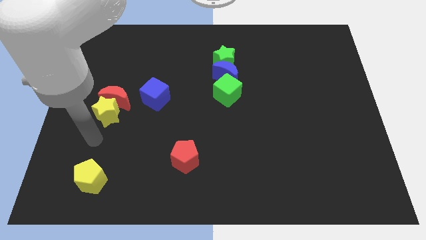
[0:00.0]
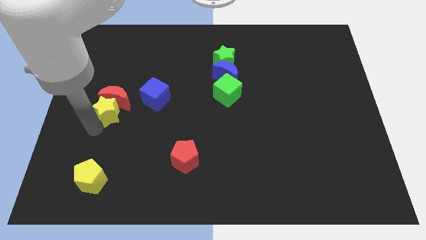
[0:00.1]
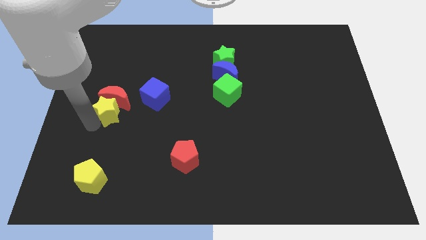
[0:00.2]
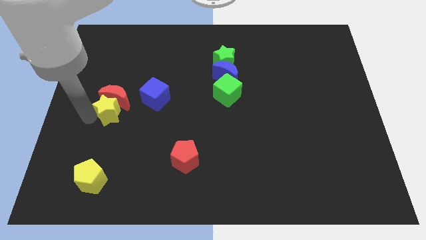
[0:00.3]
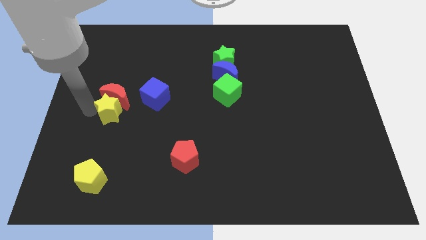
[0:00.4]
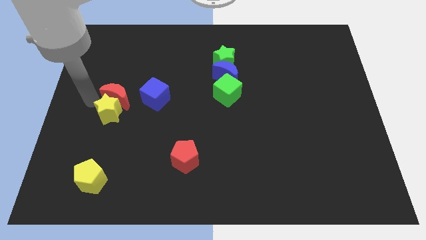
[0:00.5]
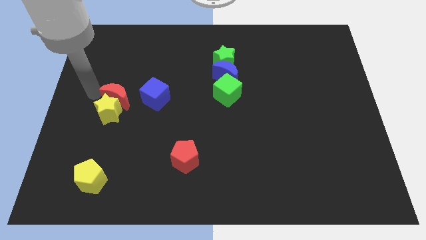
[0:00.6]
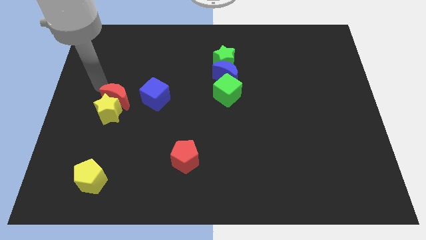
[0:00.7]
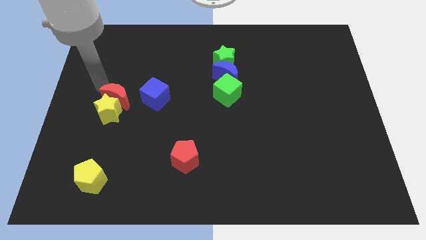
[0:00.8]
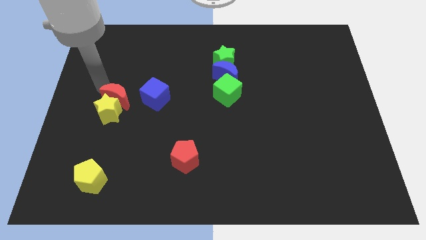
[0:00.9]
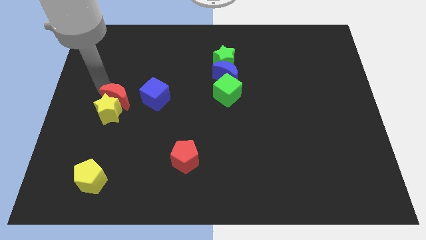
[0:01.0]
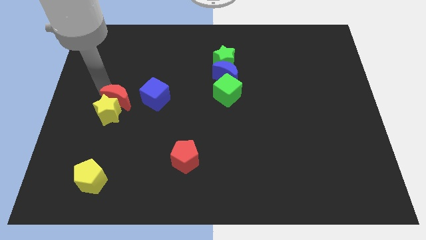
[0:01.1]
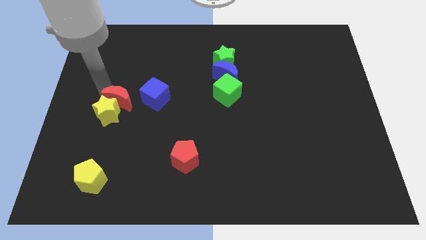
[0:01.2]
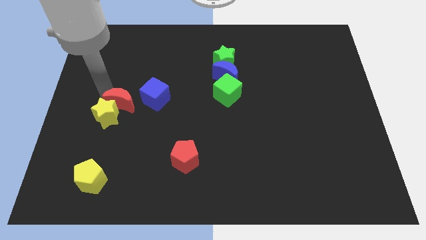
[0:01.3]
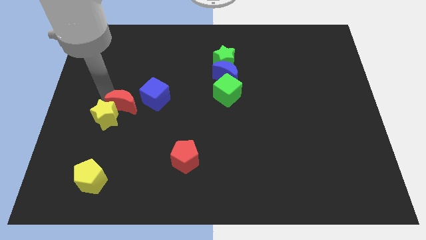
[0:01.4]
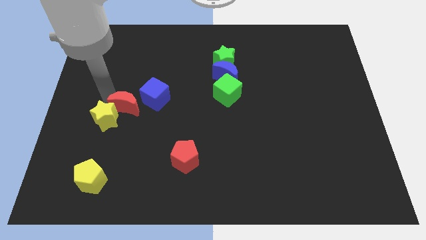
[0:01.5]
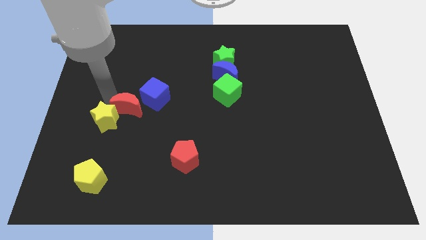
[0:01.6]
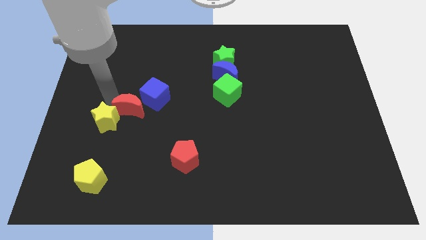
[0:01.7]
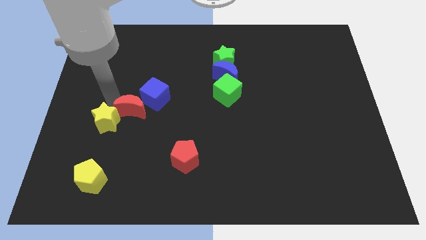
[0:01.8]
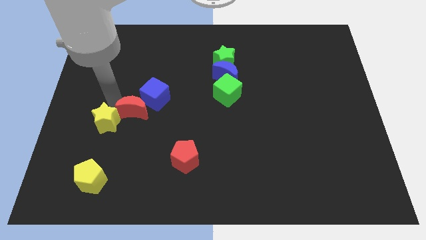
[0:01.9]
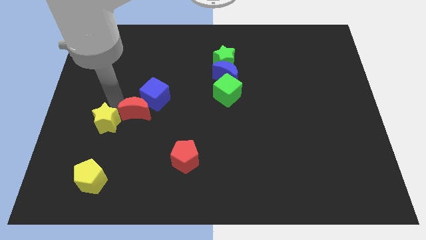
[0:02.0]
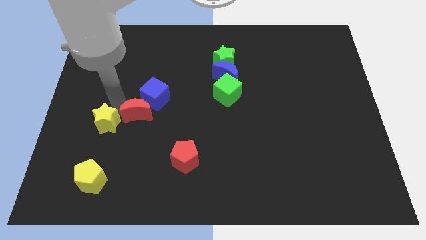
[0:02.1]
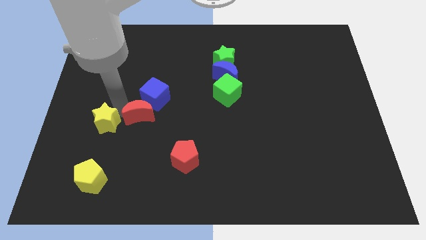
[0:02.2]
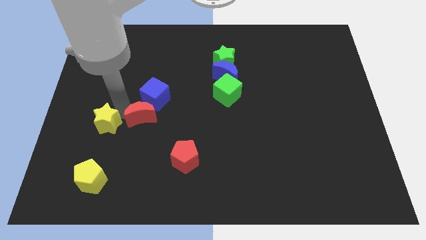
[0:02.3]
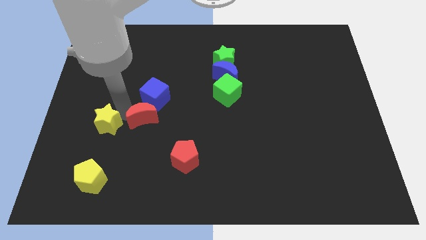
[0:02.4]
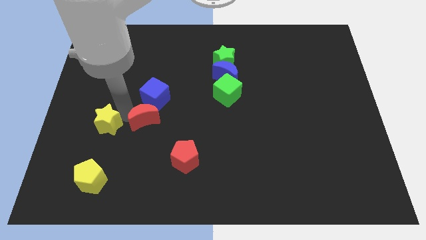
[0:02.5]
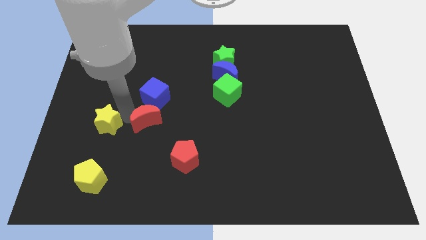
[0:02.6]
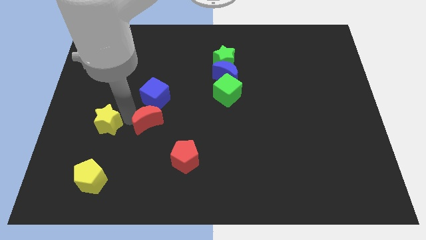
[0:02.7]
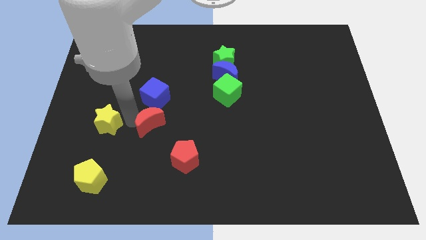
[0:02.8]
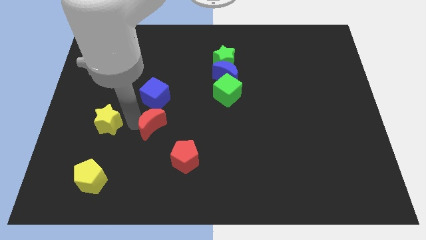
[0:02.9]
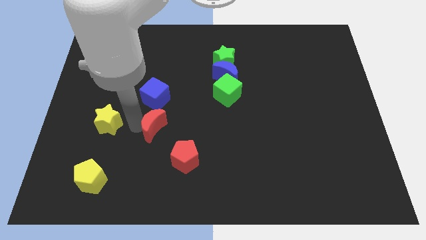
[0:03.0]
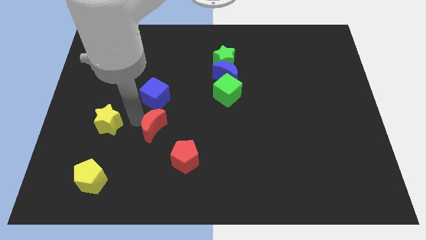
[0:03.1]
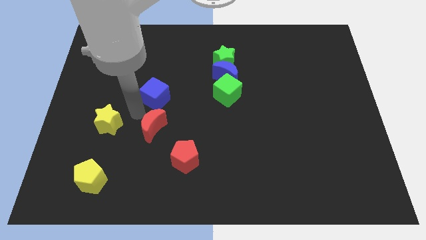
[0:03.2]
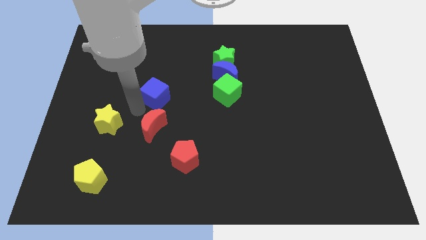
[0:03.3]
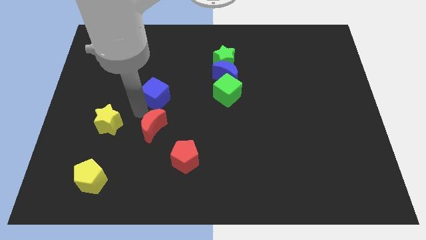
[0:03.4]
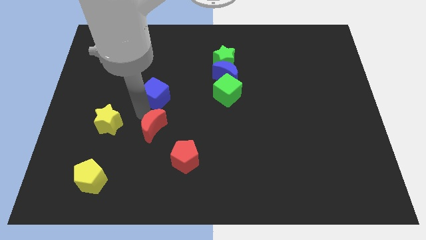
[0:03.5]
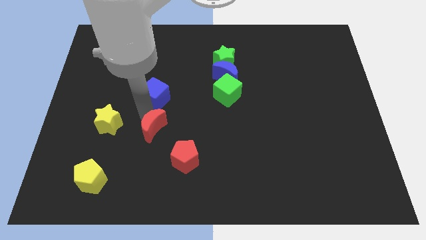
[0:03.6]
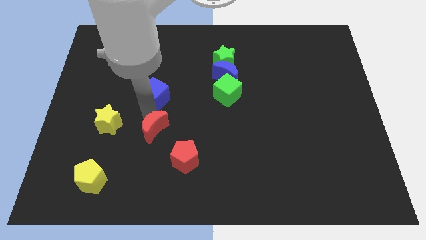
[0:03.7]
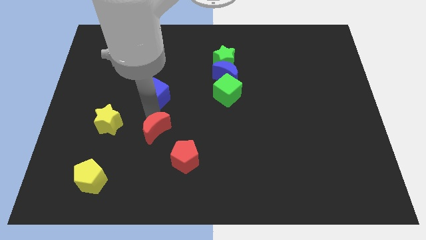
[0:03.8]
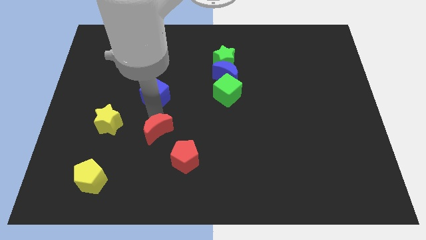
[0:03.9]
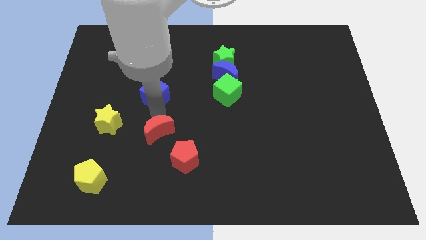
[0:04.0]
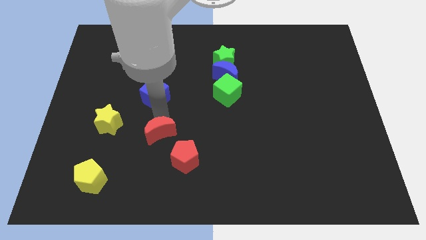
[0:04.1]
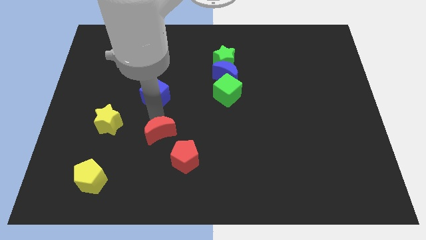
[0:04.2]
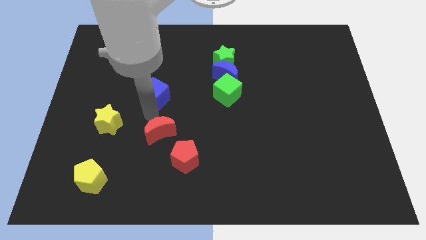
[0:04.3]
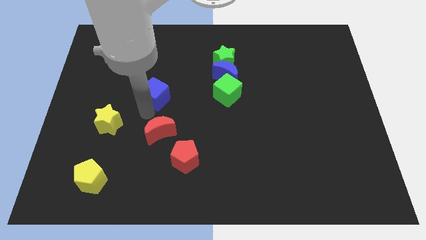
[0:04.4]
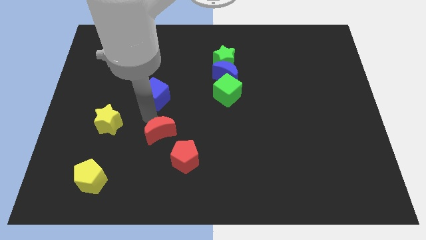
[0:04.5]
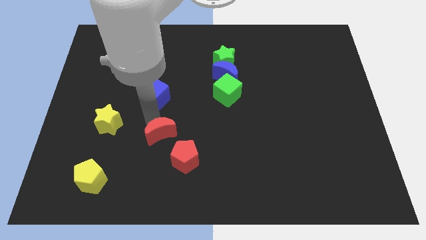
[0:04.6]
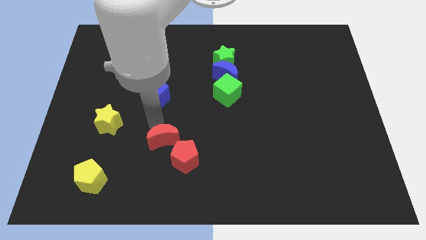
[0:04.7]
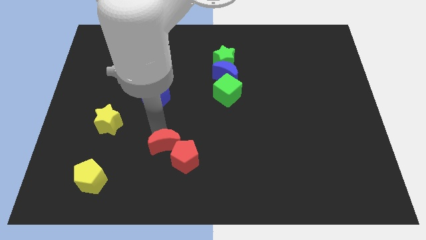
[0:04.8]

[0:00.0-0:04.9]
push the red moon close to the red pentagon

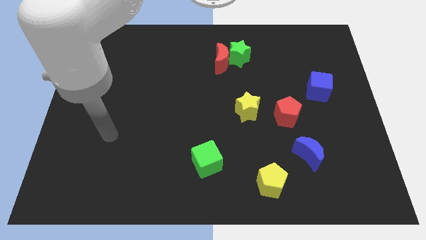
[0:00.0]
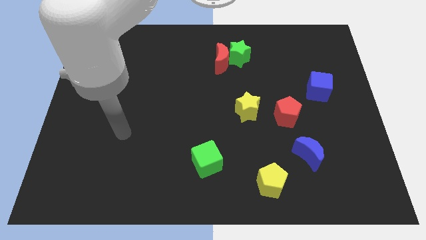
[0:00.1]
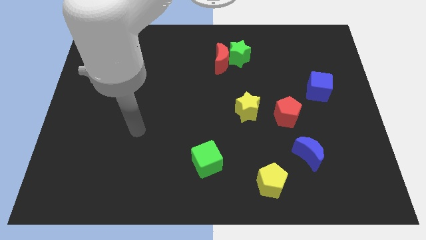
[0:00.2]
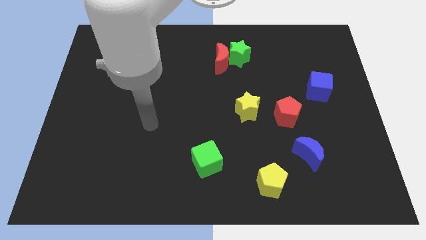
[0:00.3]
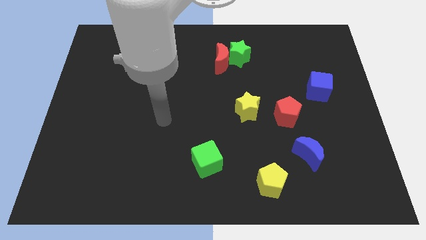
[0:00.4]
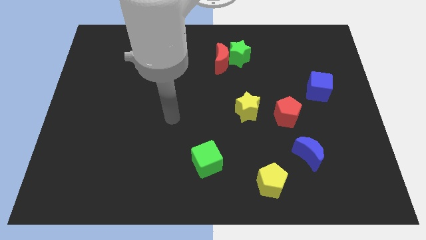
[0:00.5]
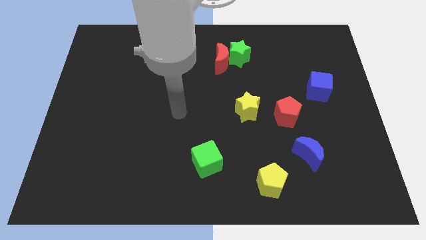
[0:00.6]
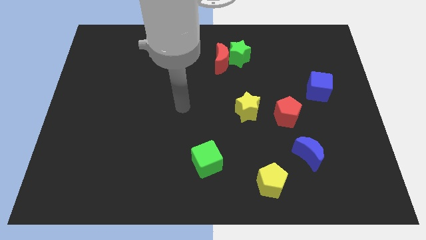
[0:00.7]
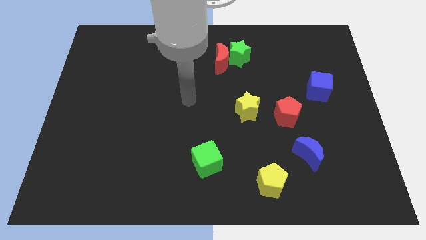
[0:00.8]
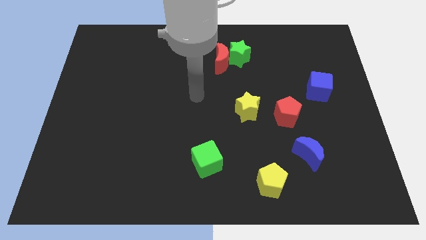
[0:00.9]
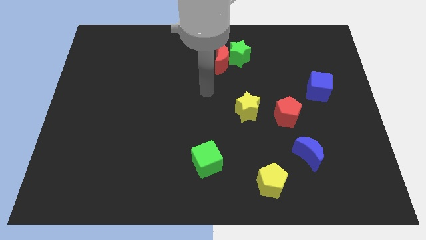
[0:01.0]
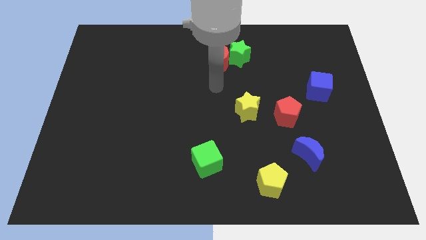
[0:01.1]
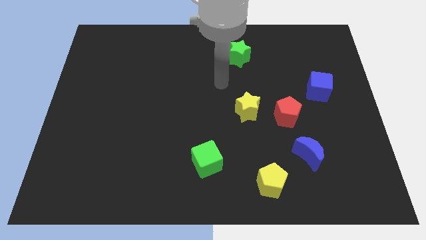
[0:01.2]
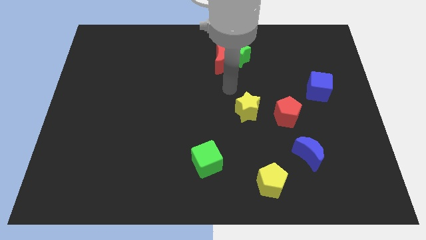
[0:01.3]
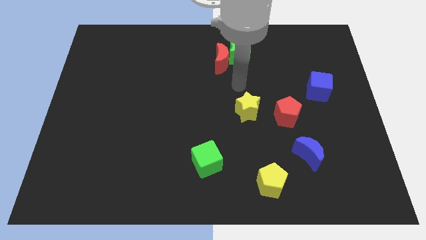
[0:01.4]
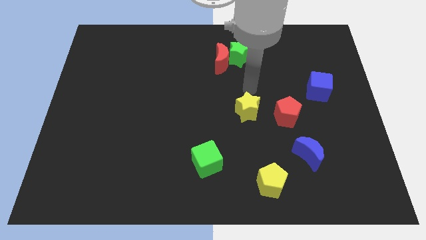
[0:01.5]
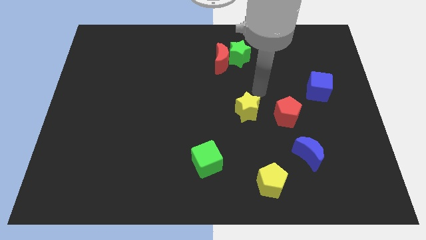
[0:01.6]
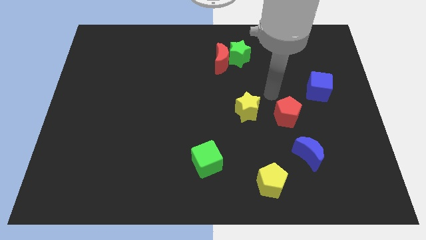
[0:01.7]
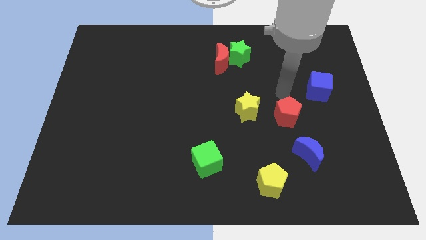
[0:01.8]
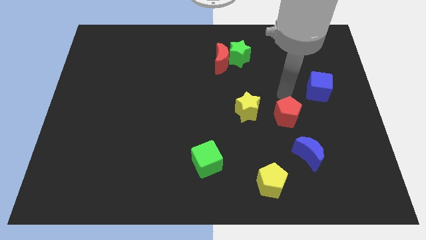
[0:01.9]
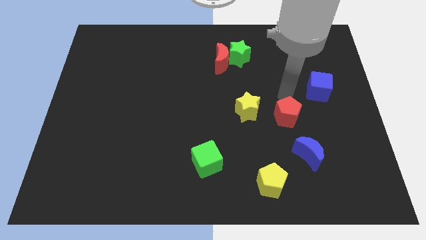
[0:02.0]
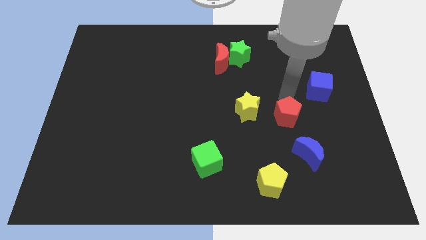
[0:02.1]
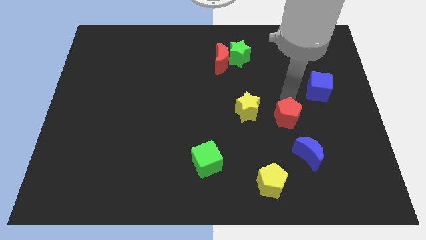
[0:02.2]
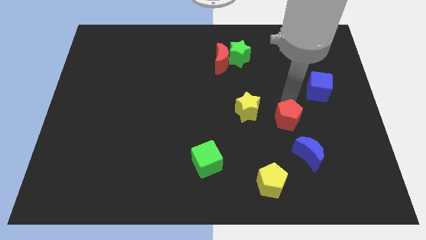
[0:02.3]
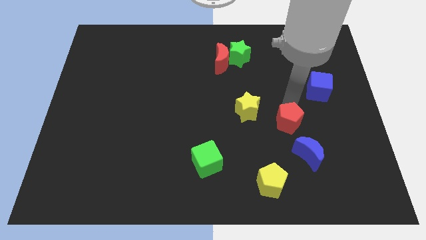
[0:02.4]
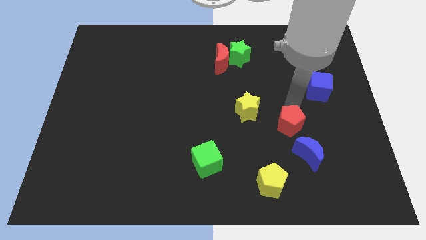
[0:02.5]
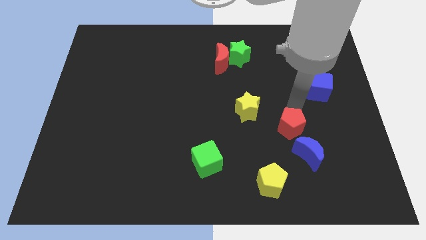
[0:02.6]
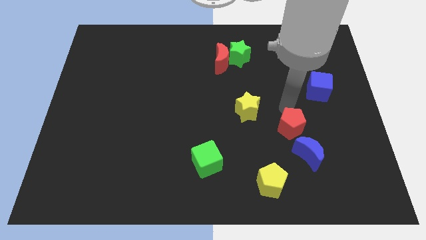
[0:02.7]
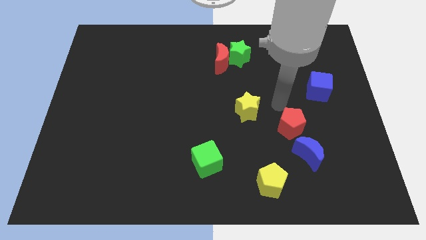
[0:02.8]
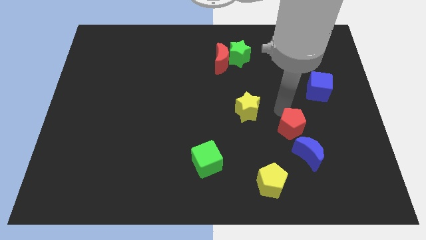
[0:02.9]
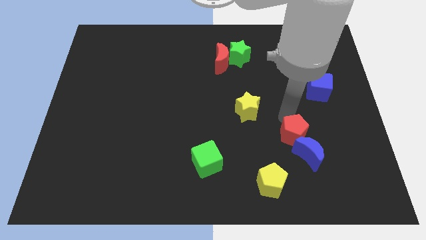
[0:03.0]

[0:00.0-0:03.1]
push the red pentagon next to the blue moon
